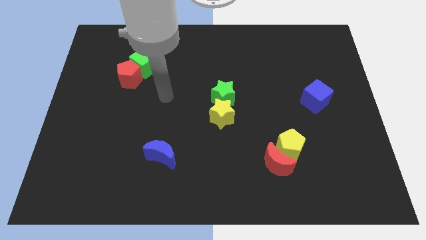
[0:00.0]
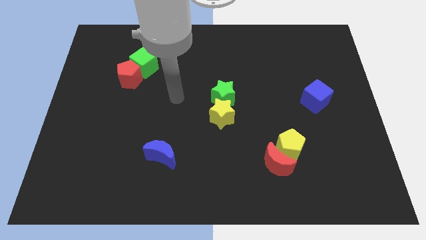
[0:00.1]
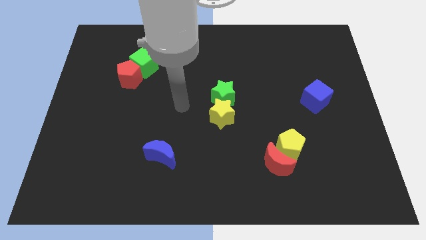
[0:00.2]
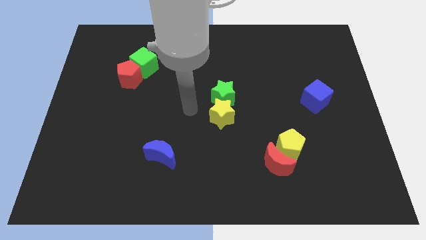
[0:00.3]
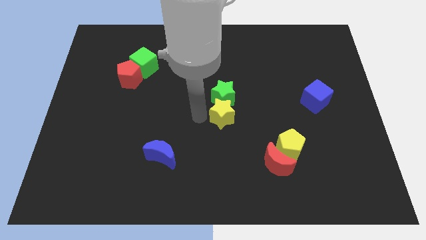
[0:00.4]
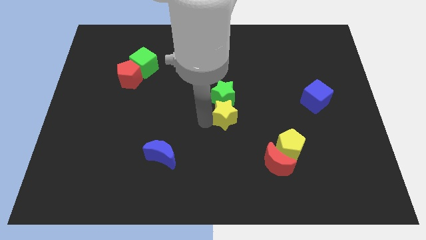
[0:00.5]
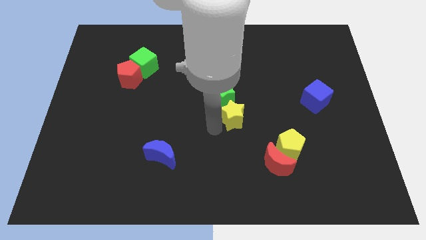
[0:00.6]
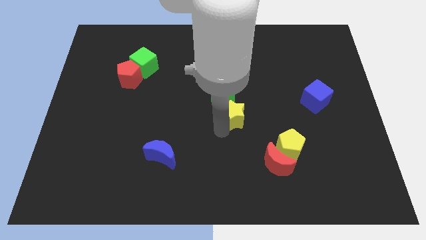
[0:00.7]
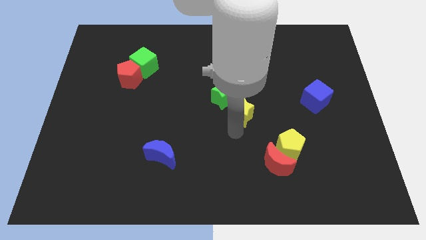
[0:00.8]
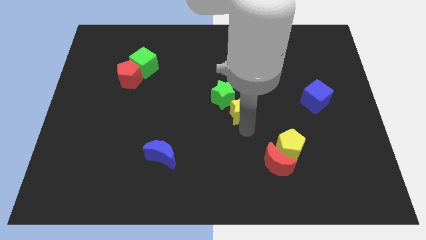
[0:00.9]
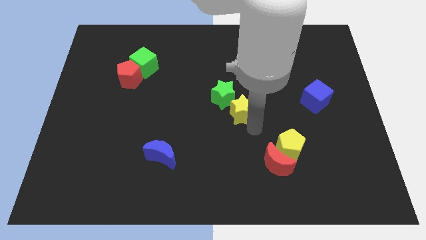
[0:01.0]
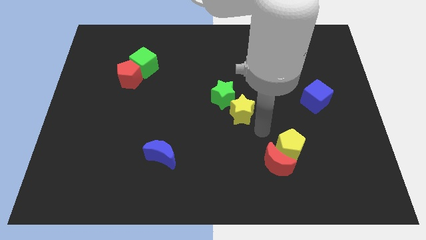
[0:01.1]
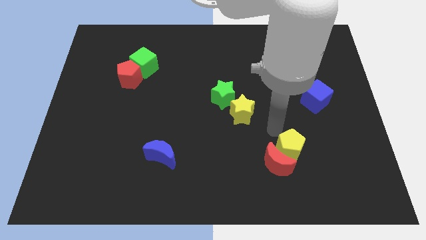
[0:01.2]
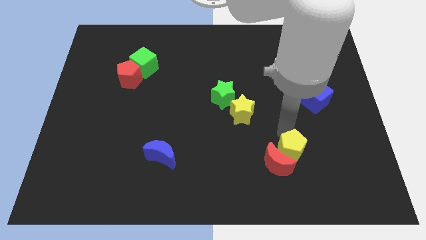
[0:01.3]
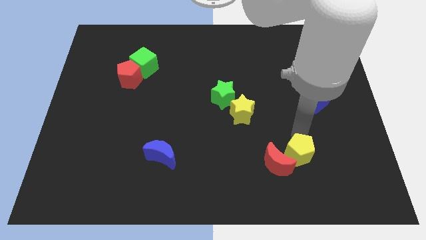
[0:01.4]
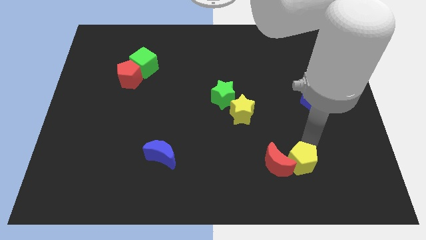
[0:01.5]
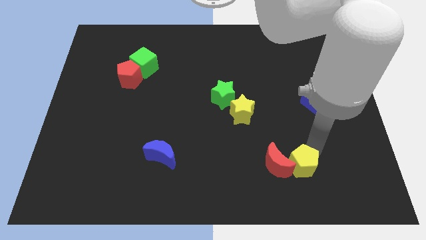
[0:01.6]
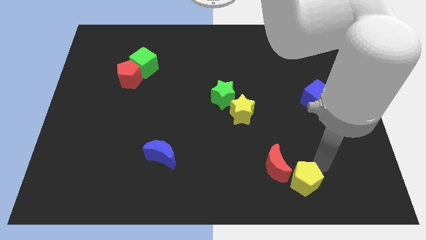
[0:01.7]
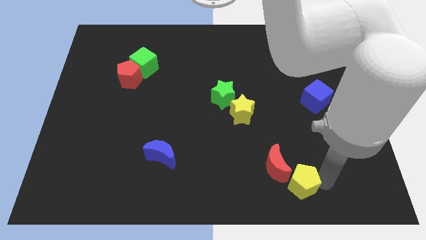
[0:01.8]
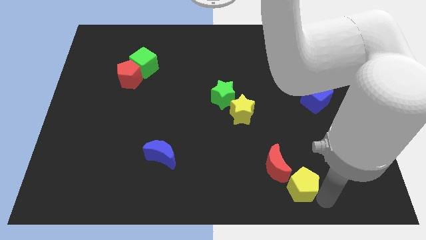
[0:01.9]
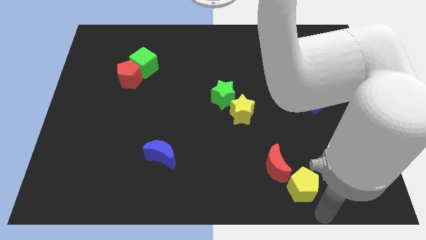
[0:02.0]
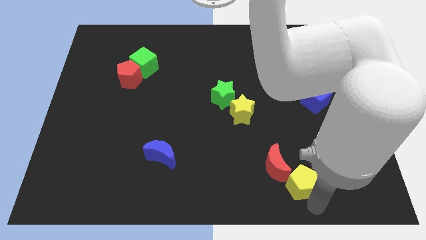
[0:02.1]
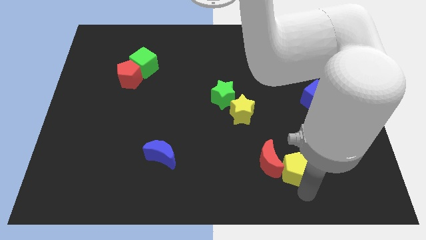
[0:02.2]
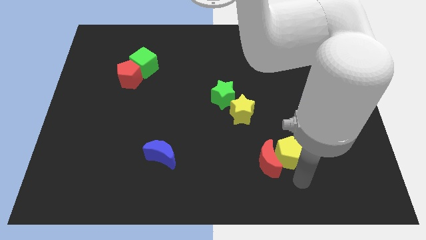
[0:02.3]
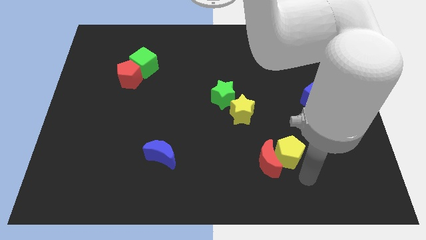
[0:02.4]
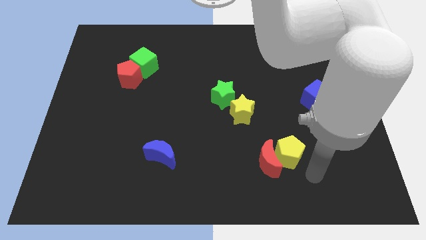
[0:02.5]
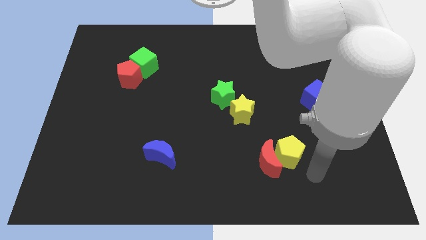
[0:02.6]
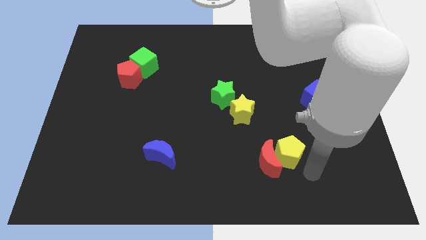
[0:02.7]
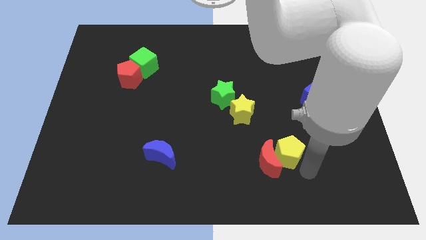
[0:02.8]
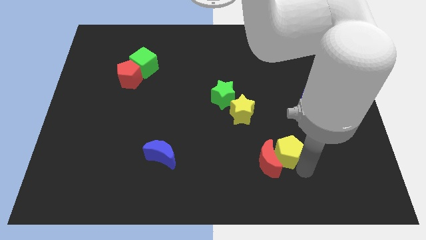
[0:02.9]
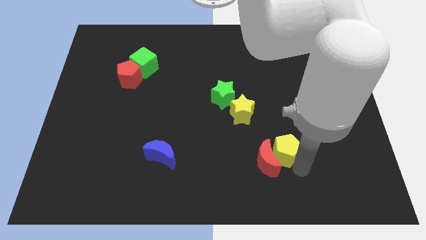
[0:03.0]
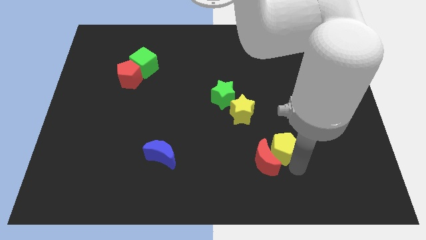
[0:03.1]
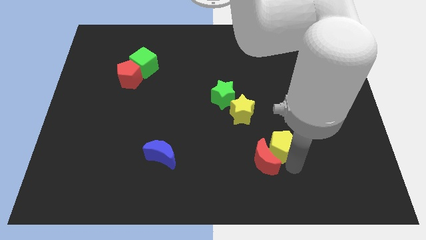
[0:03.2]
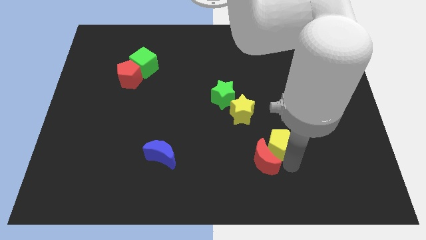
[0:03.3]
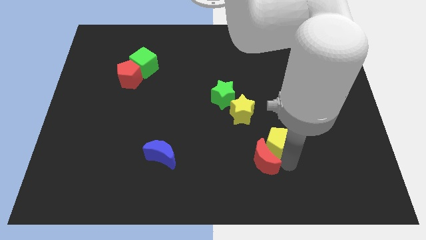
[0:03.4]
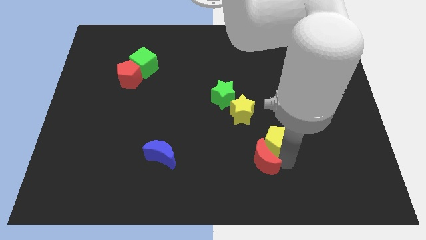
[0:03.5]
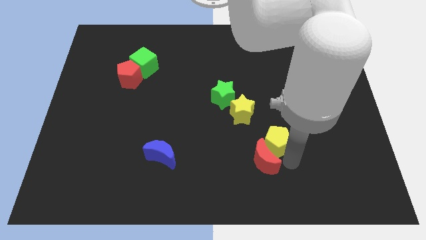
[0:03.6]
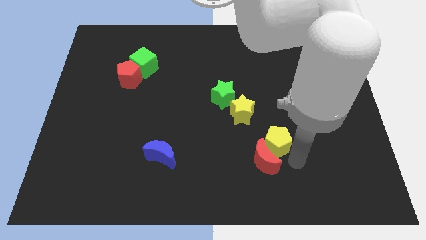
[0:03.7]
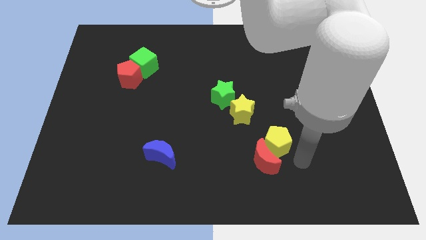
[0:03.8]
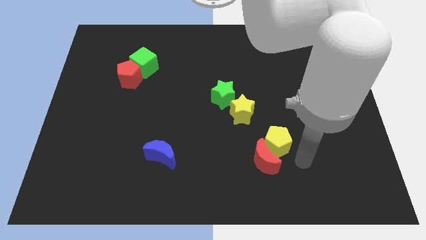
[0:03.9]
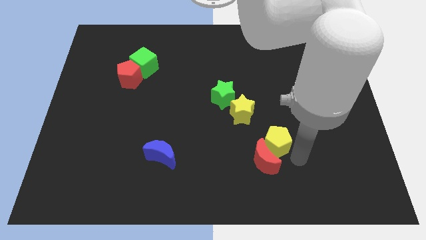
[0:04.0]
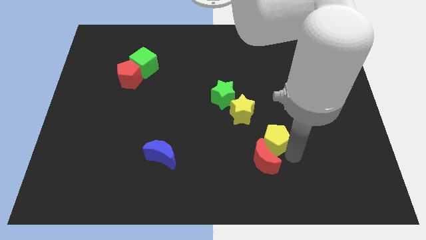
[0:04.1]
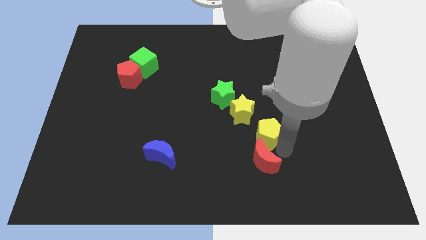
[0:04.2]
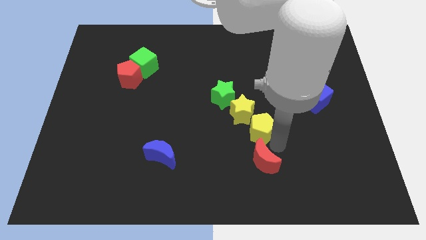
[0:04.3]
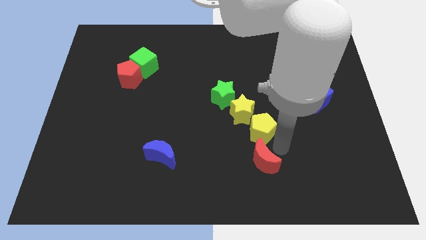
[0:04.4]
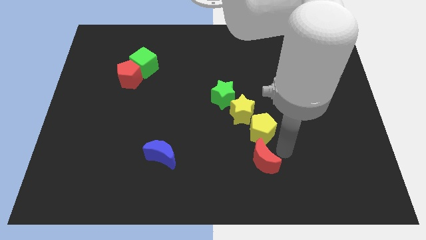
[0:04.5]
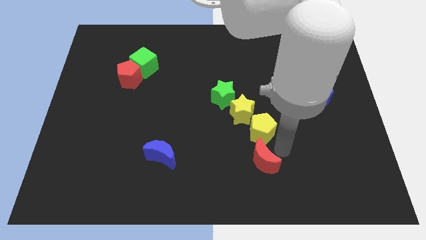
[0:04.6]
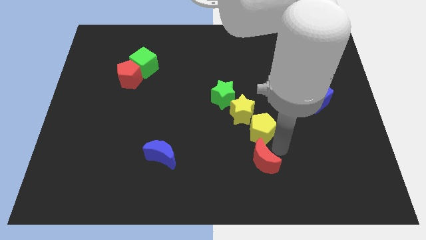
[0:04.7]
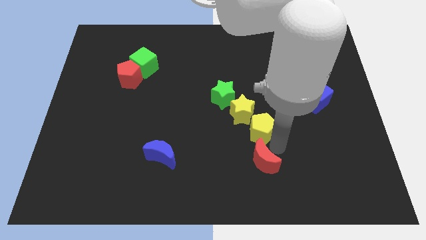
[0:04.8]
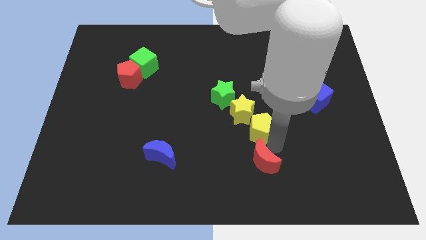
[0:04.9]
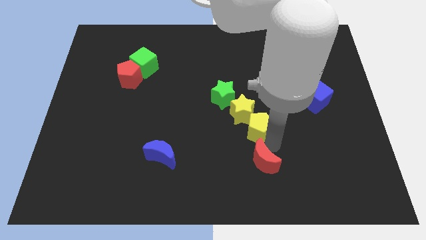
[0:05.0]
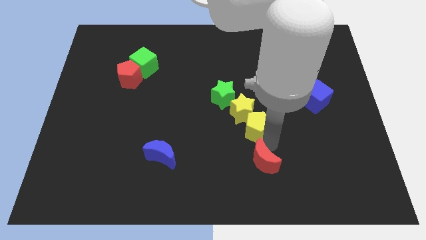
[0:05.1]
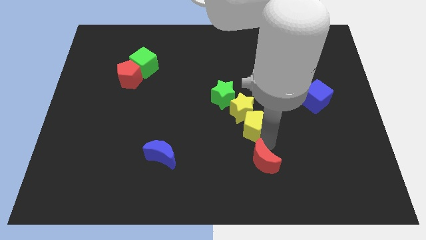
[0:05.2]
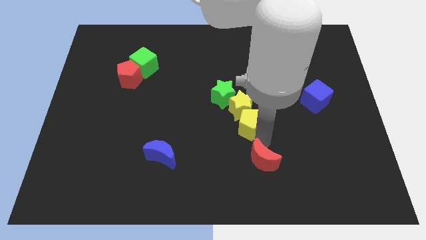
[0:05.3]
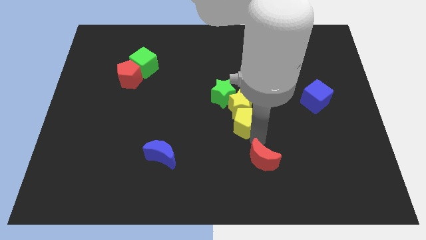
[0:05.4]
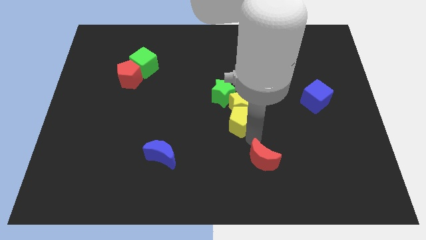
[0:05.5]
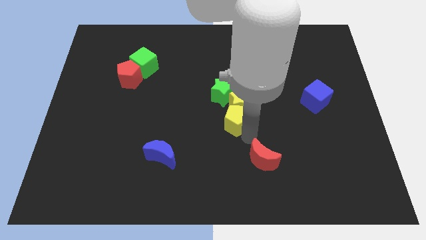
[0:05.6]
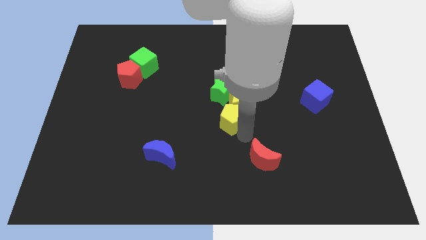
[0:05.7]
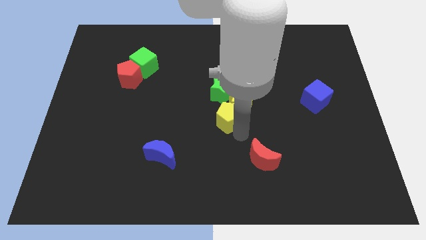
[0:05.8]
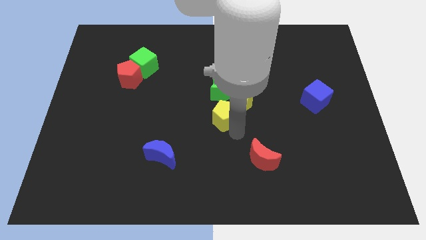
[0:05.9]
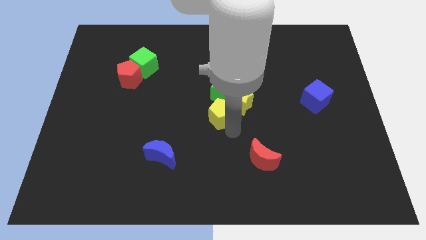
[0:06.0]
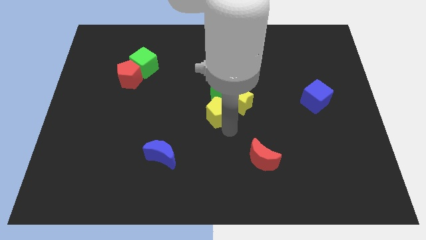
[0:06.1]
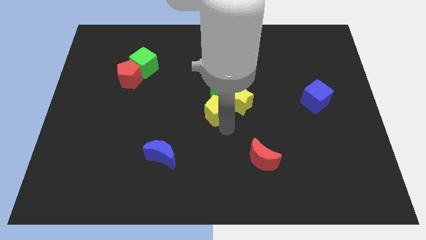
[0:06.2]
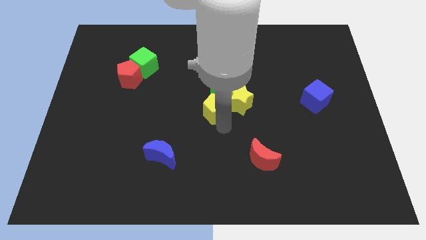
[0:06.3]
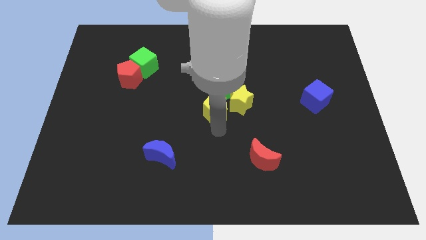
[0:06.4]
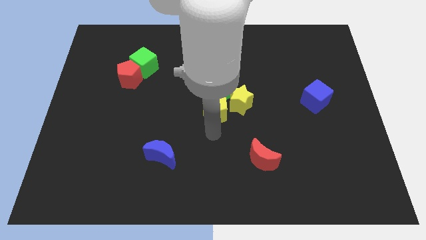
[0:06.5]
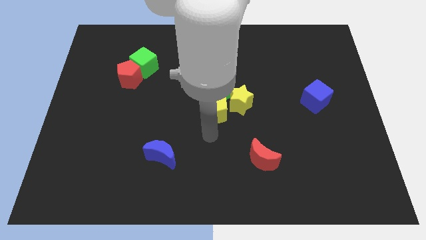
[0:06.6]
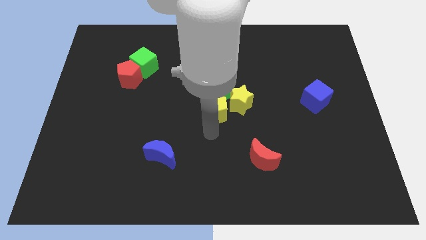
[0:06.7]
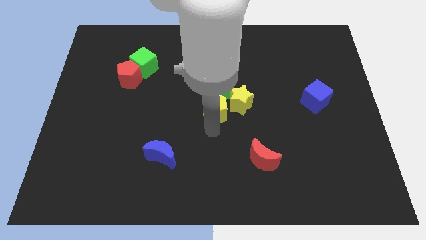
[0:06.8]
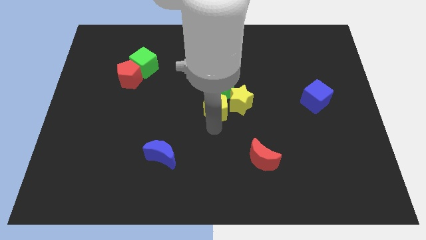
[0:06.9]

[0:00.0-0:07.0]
push the yellow pentagon to the green star

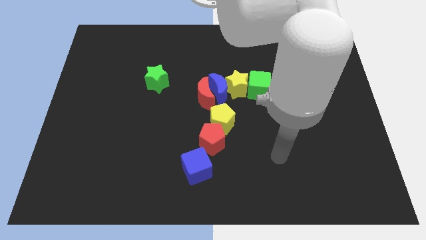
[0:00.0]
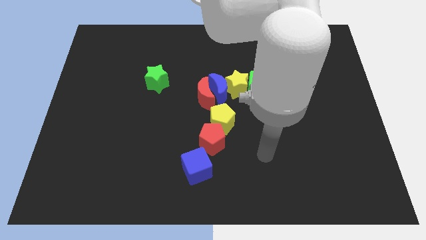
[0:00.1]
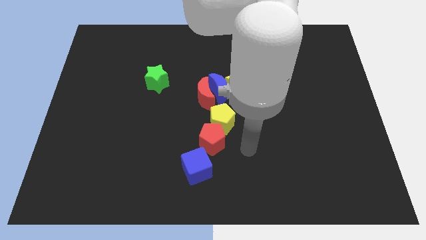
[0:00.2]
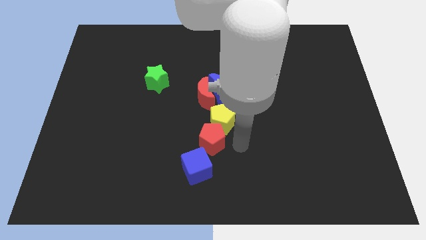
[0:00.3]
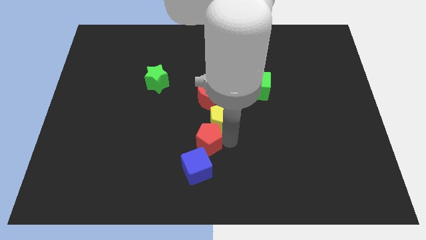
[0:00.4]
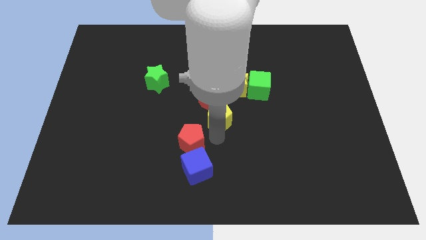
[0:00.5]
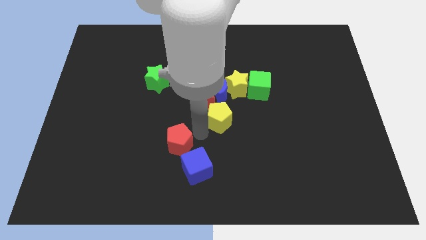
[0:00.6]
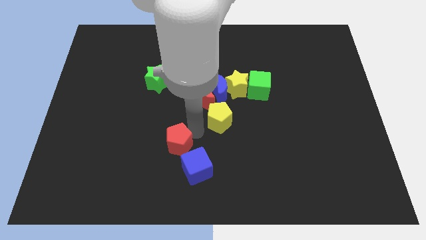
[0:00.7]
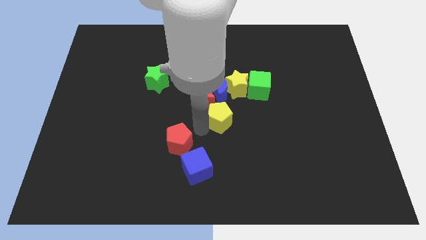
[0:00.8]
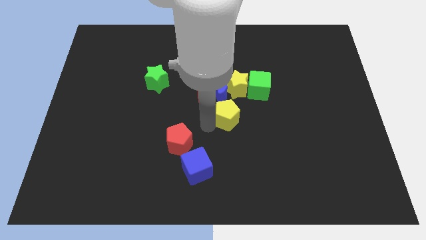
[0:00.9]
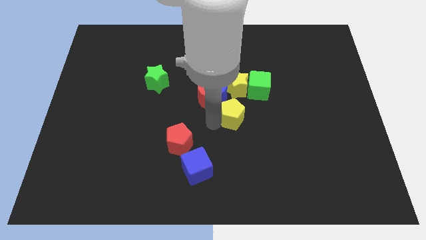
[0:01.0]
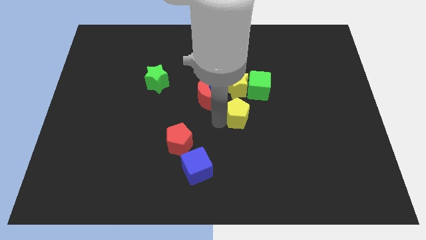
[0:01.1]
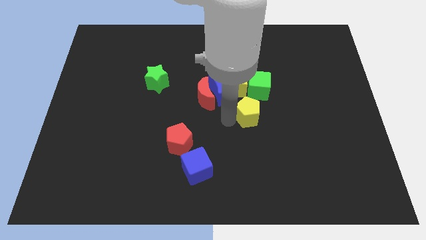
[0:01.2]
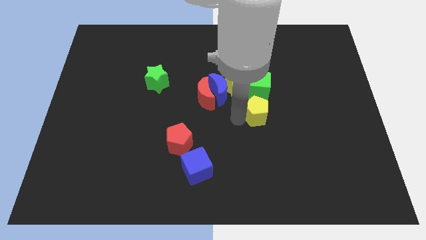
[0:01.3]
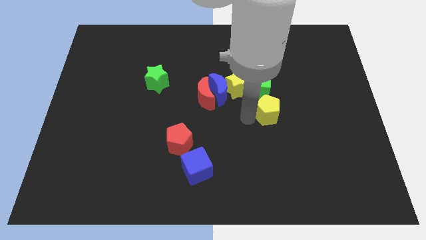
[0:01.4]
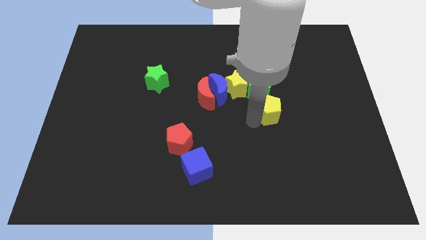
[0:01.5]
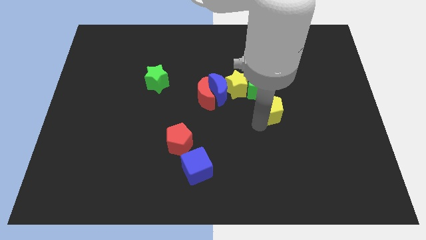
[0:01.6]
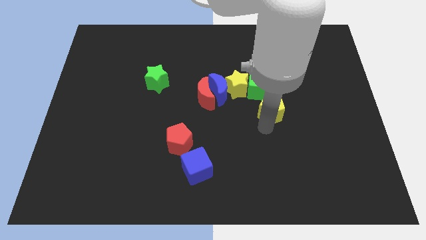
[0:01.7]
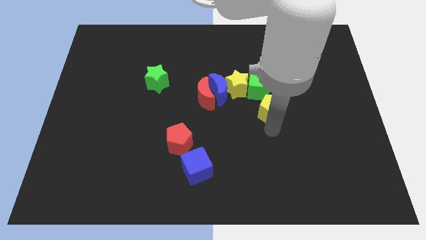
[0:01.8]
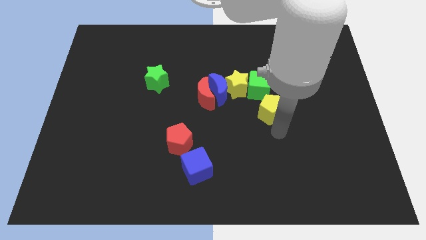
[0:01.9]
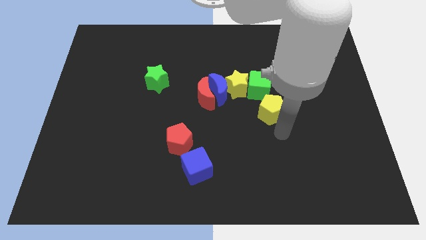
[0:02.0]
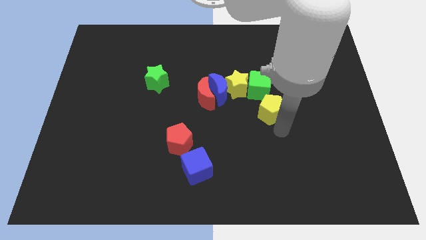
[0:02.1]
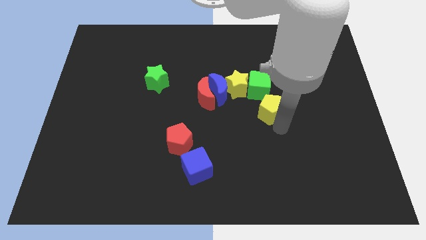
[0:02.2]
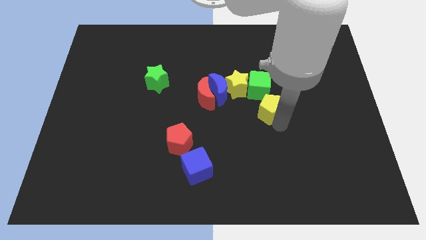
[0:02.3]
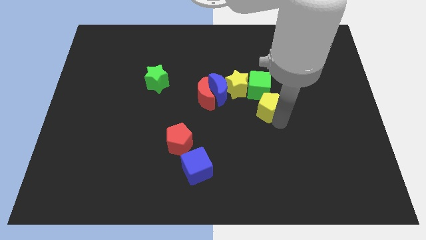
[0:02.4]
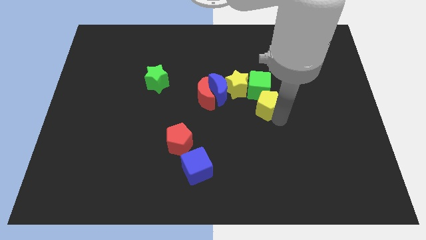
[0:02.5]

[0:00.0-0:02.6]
move the yellow pentagon close to the green cube
